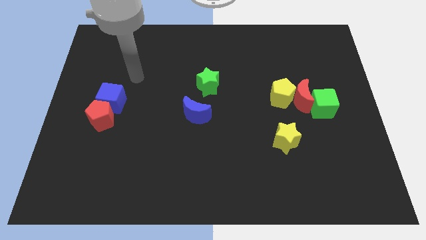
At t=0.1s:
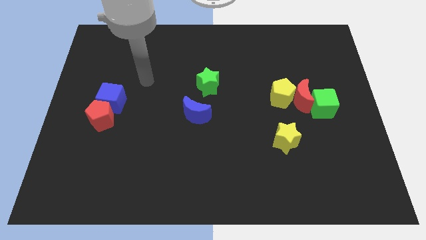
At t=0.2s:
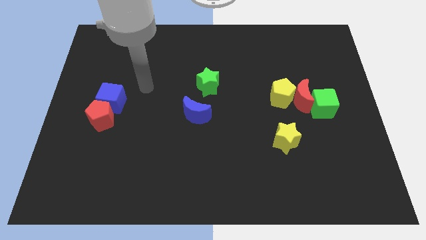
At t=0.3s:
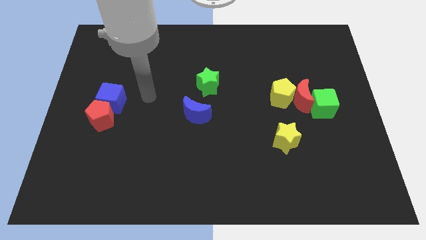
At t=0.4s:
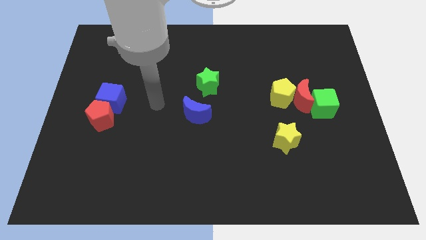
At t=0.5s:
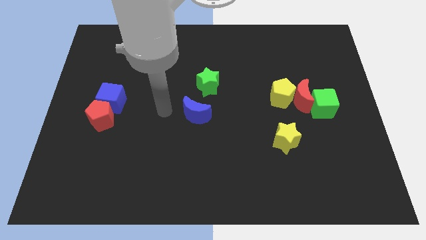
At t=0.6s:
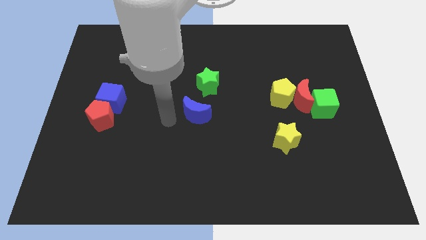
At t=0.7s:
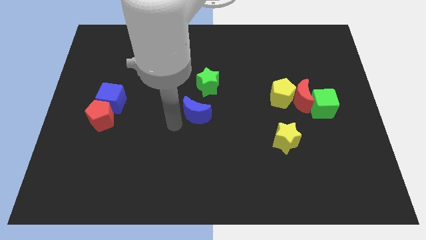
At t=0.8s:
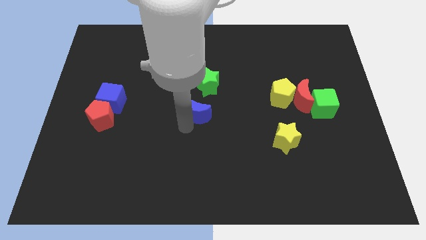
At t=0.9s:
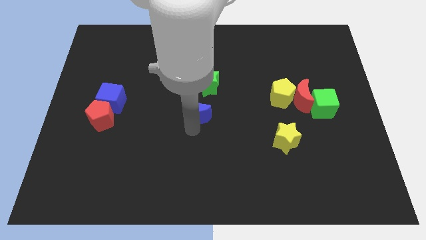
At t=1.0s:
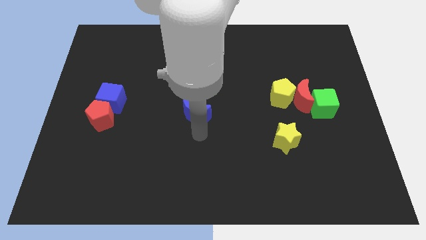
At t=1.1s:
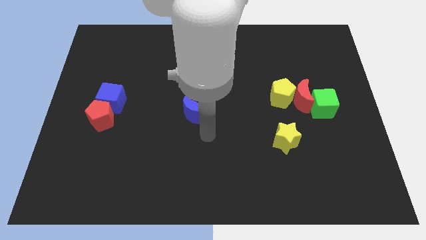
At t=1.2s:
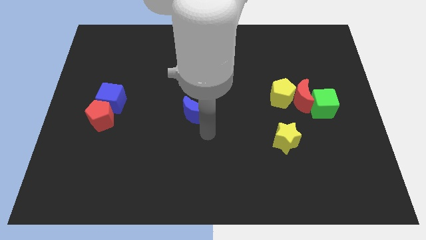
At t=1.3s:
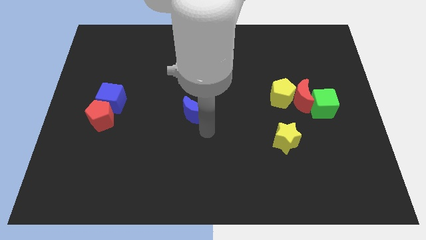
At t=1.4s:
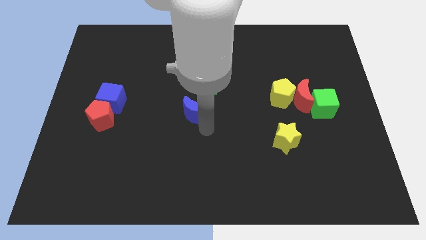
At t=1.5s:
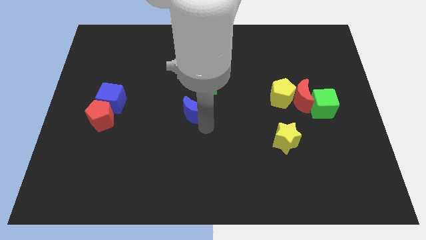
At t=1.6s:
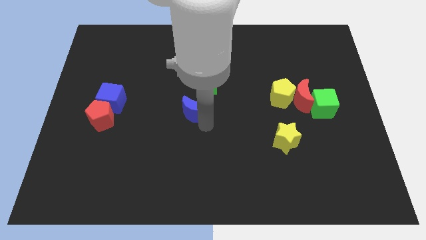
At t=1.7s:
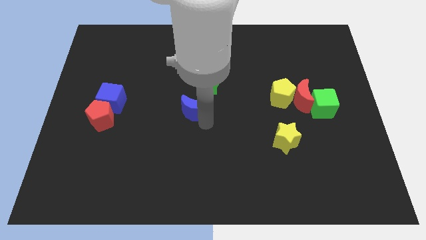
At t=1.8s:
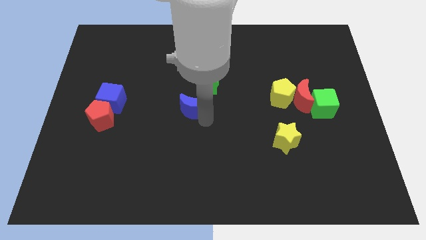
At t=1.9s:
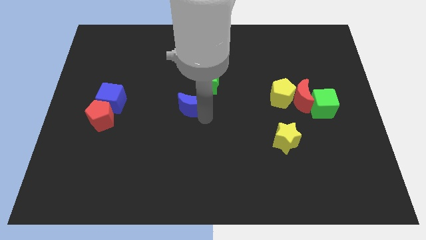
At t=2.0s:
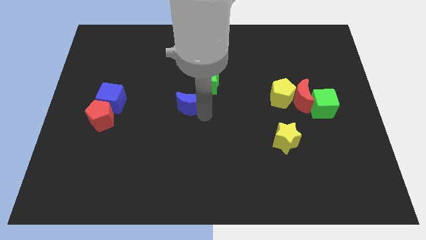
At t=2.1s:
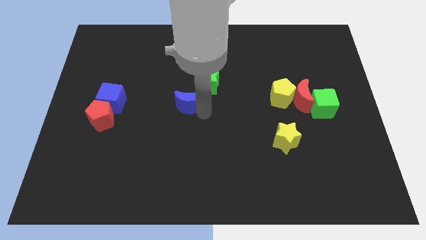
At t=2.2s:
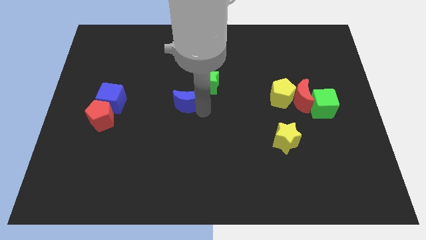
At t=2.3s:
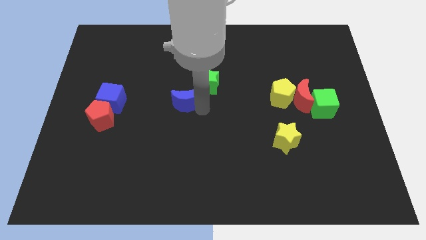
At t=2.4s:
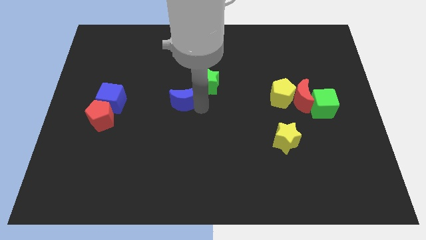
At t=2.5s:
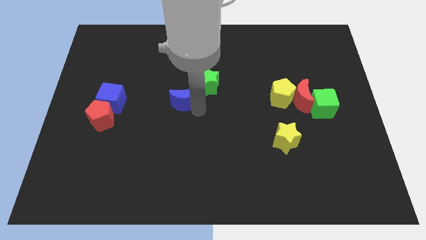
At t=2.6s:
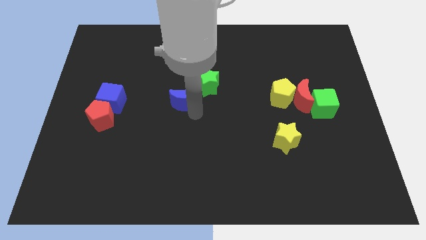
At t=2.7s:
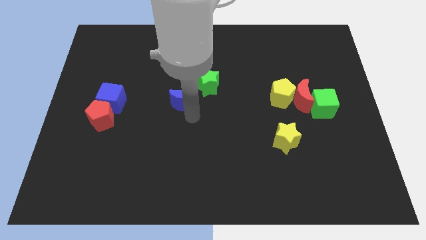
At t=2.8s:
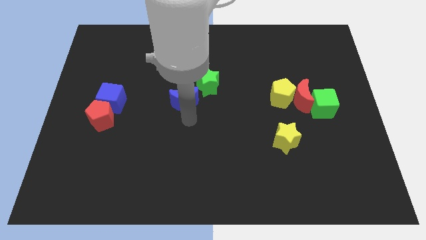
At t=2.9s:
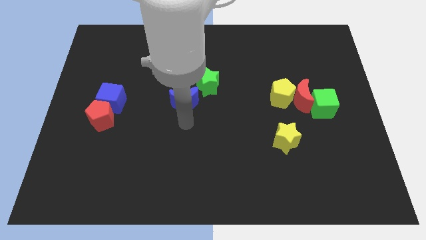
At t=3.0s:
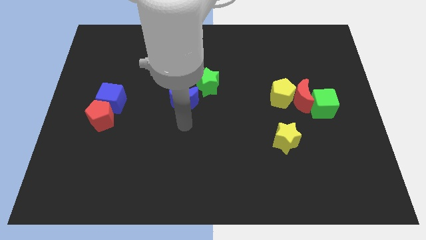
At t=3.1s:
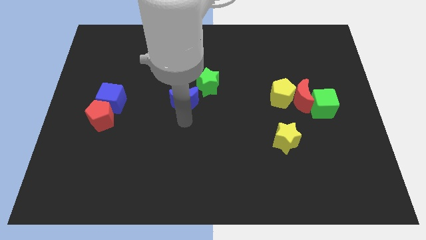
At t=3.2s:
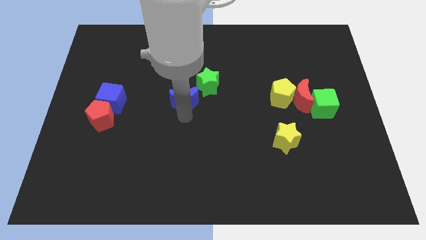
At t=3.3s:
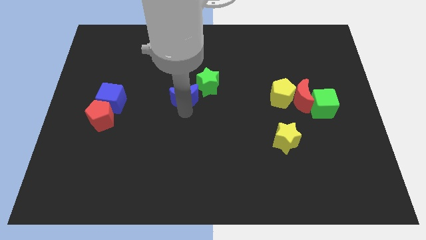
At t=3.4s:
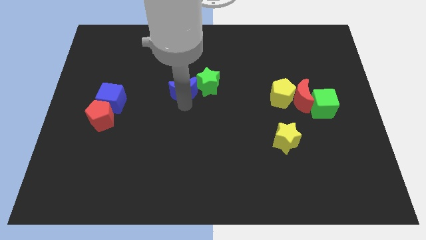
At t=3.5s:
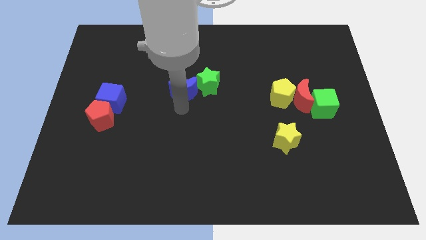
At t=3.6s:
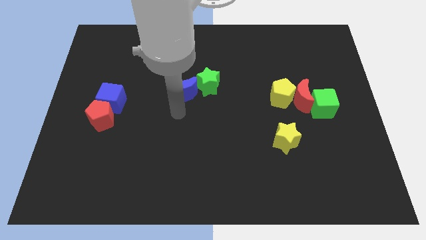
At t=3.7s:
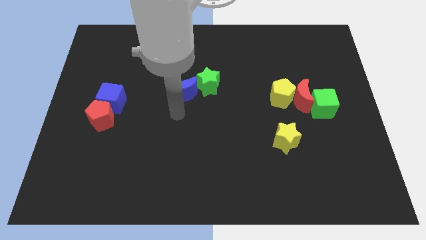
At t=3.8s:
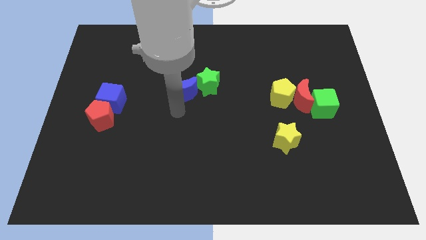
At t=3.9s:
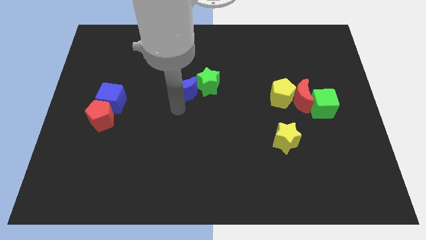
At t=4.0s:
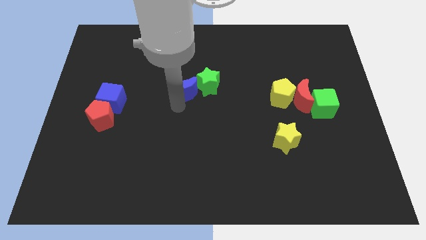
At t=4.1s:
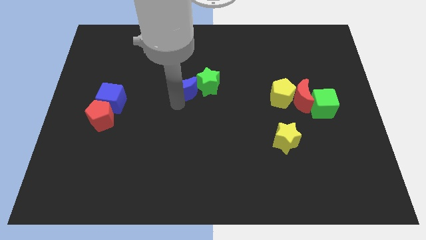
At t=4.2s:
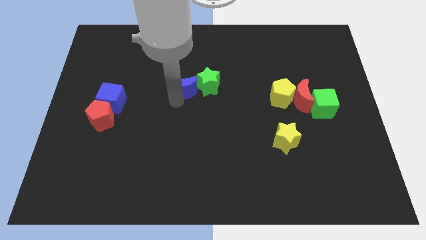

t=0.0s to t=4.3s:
slide the blue moon slightly up

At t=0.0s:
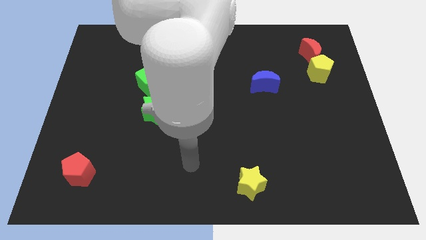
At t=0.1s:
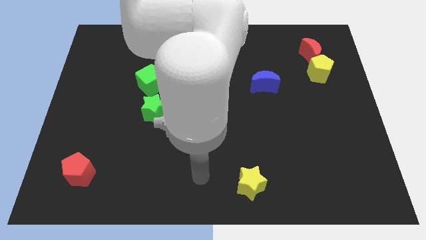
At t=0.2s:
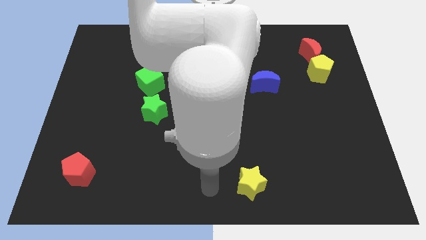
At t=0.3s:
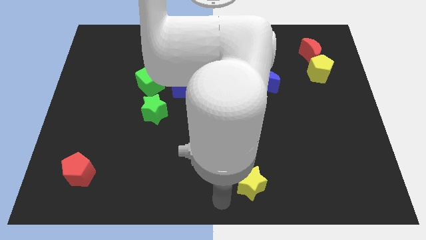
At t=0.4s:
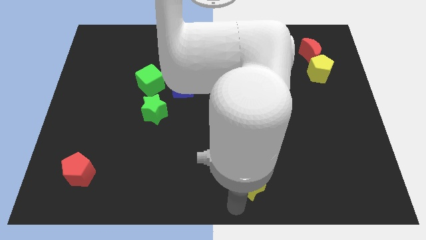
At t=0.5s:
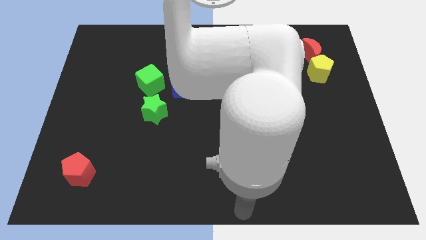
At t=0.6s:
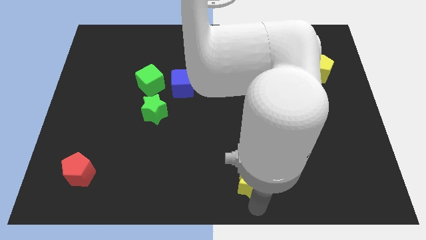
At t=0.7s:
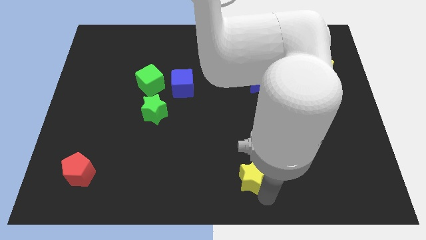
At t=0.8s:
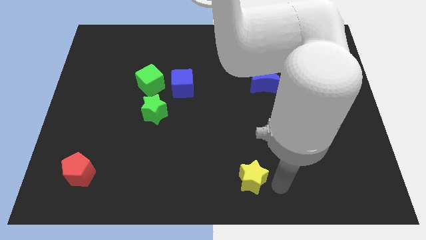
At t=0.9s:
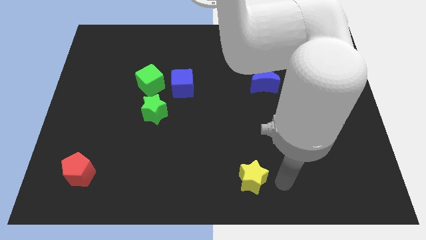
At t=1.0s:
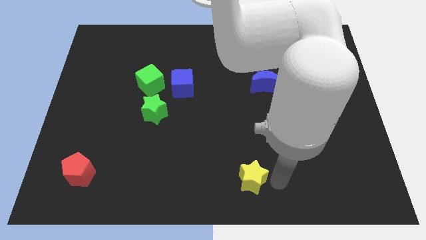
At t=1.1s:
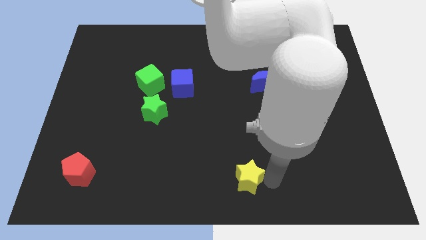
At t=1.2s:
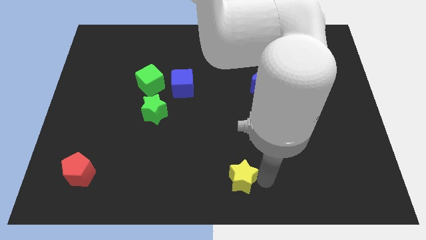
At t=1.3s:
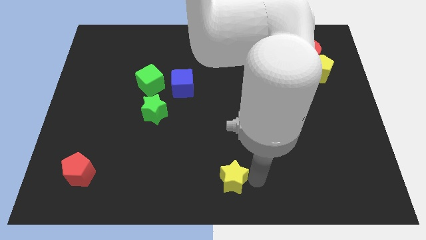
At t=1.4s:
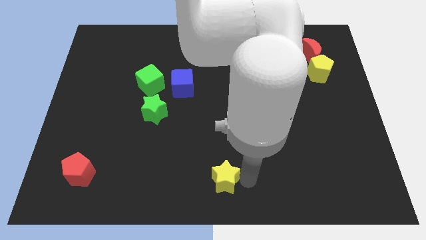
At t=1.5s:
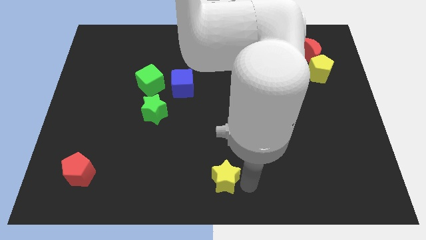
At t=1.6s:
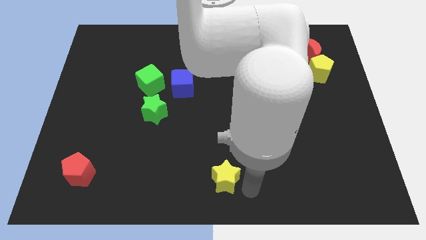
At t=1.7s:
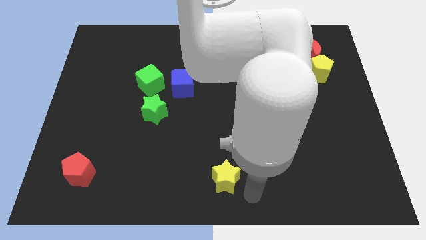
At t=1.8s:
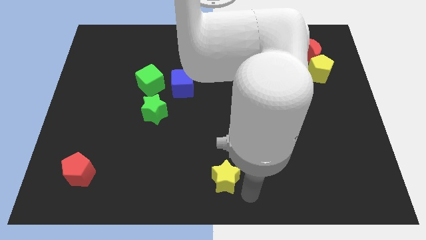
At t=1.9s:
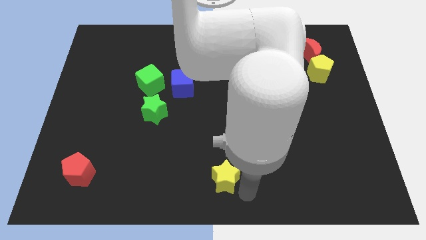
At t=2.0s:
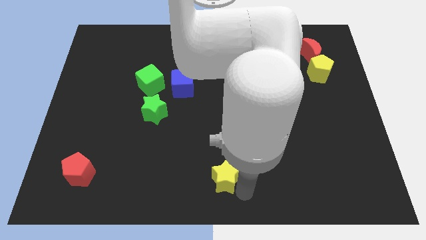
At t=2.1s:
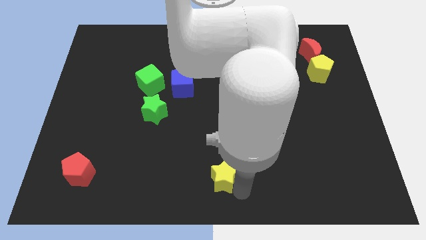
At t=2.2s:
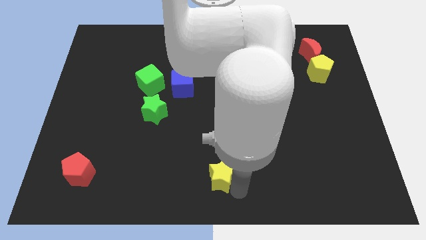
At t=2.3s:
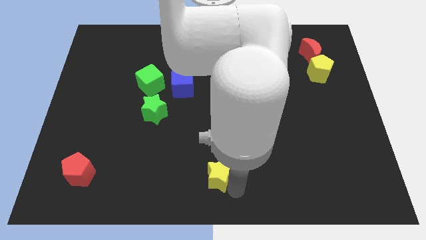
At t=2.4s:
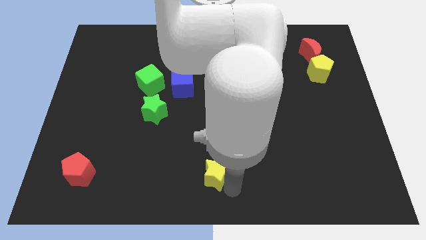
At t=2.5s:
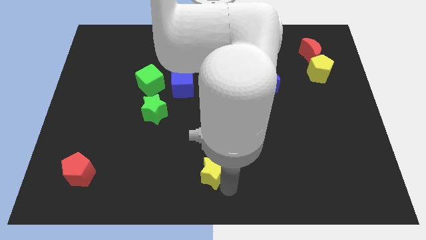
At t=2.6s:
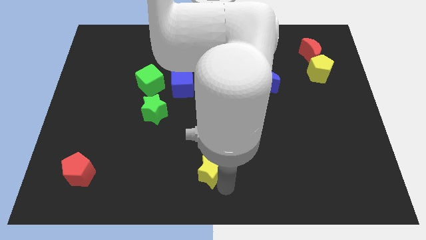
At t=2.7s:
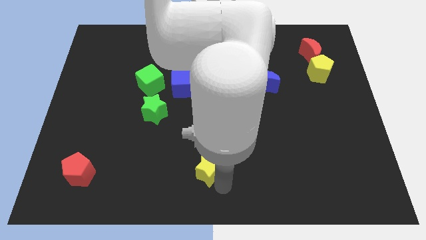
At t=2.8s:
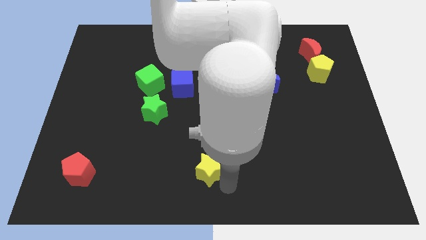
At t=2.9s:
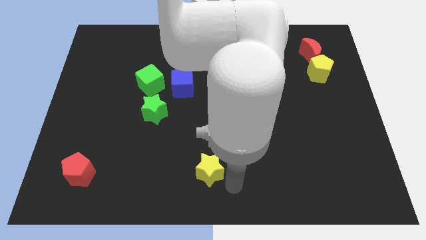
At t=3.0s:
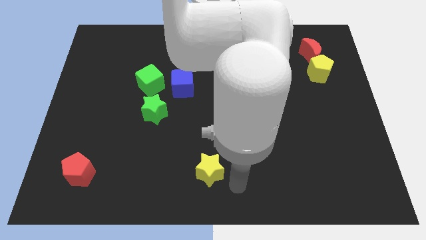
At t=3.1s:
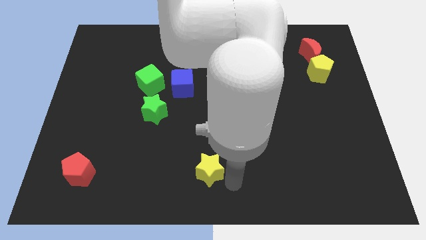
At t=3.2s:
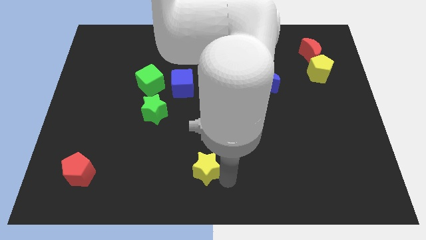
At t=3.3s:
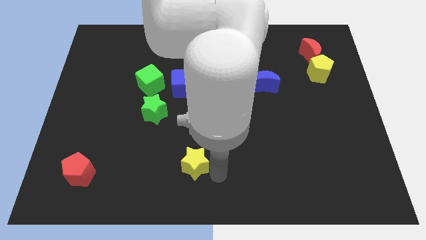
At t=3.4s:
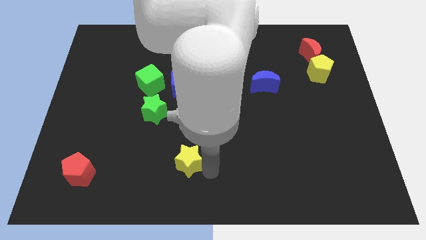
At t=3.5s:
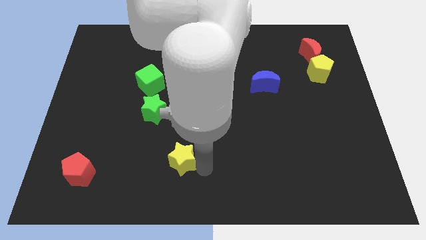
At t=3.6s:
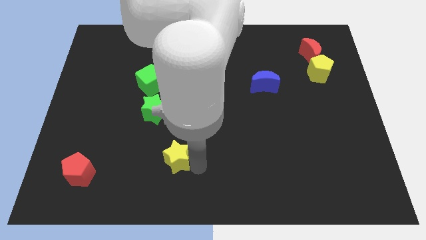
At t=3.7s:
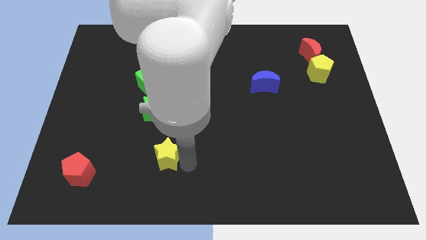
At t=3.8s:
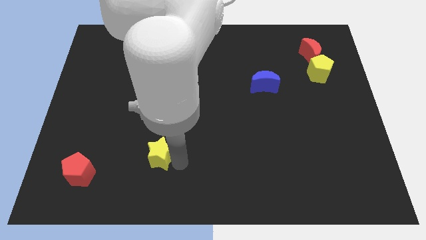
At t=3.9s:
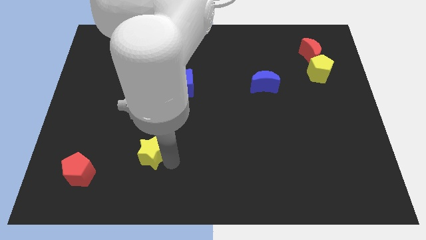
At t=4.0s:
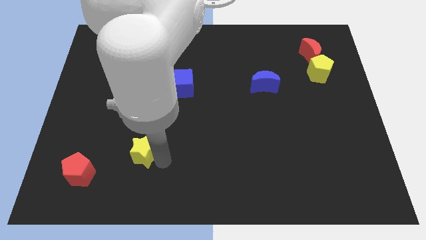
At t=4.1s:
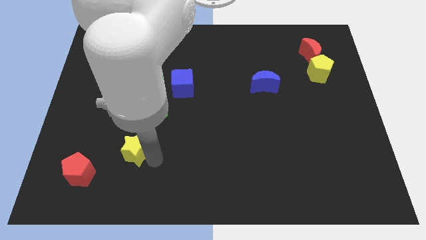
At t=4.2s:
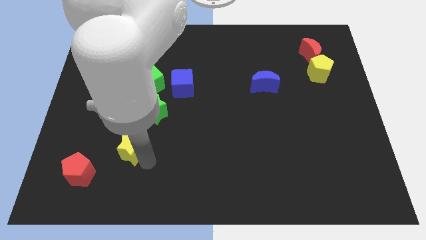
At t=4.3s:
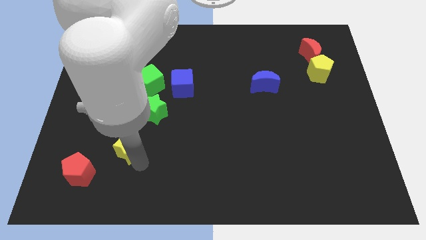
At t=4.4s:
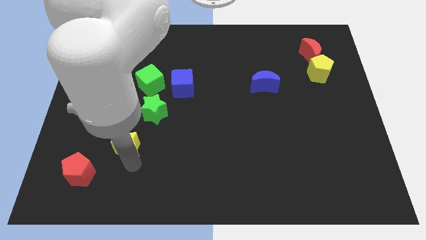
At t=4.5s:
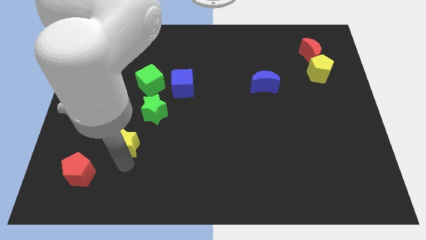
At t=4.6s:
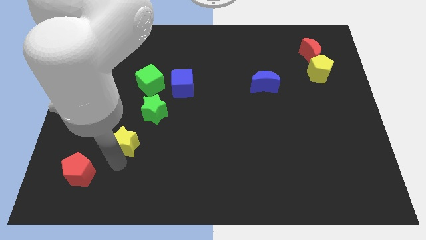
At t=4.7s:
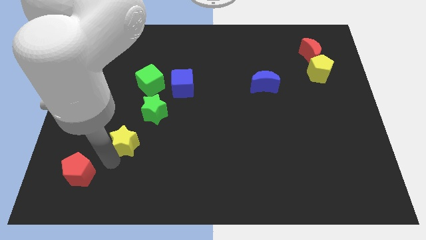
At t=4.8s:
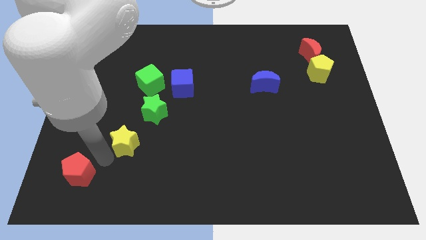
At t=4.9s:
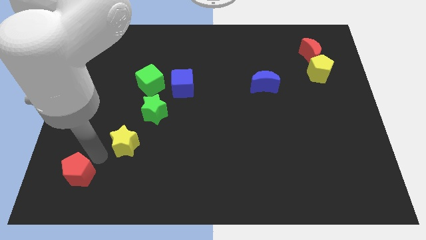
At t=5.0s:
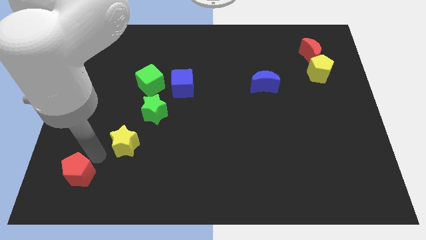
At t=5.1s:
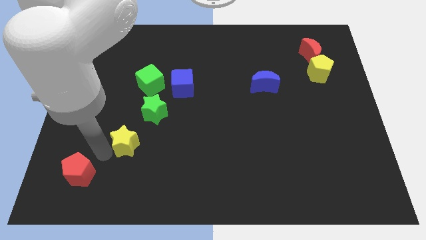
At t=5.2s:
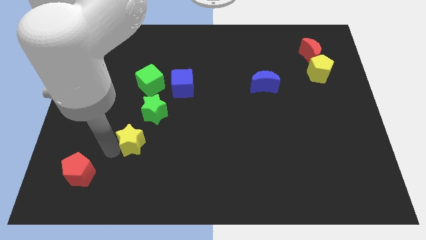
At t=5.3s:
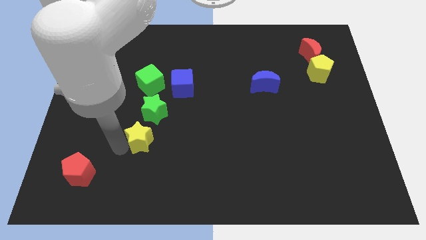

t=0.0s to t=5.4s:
slide the yellow star diagonally upwards and left
